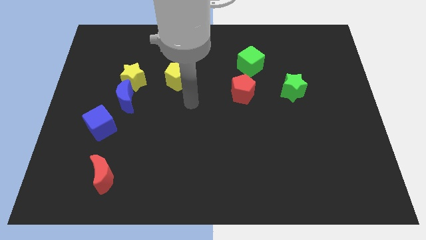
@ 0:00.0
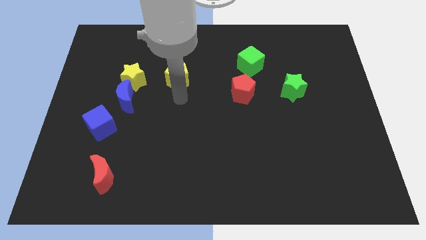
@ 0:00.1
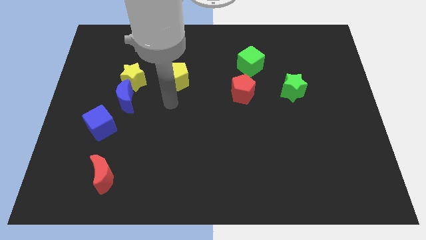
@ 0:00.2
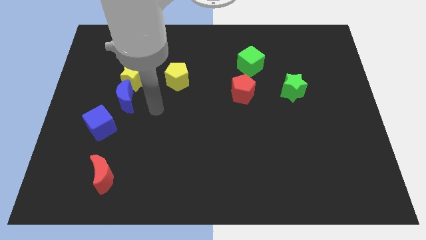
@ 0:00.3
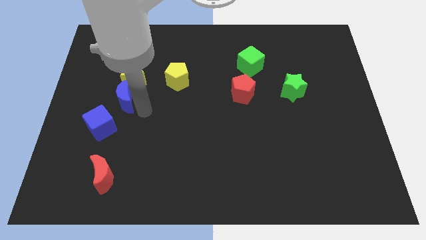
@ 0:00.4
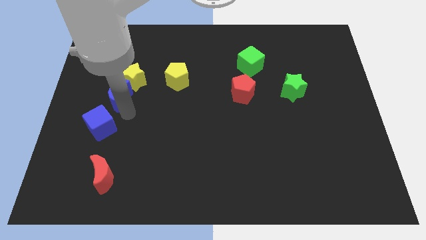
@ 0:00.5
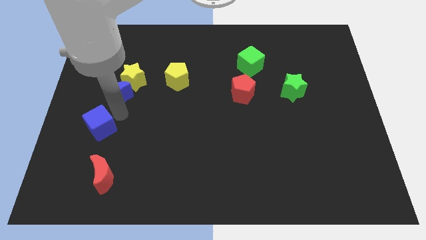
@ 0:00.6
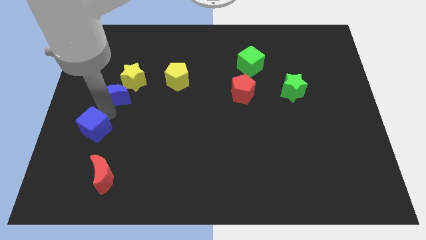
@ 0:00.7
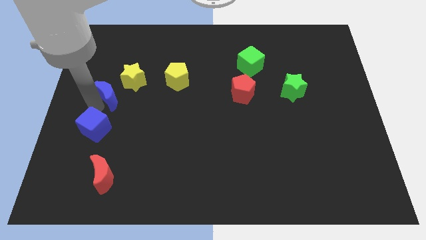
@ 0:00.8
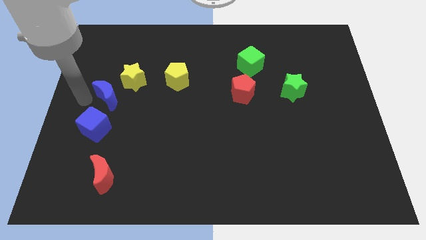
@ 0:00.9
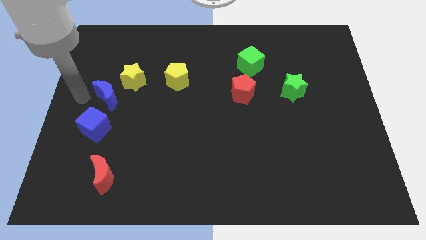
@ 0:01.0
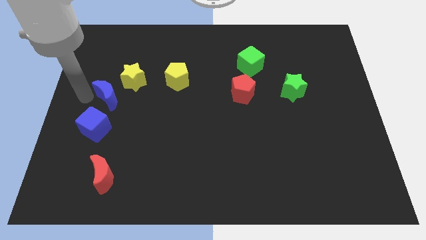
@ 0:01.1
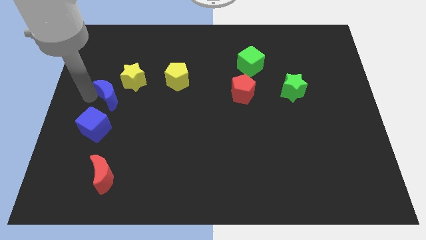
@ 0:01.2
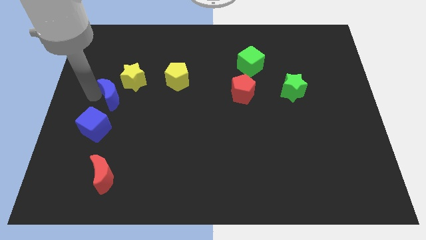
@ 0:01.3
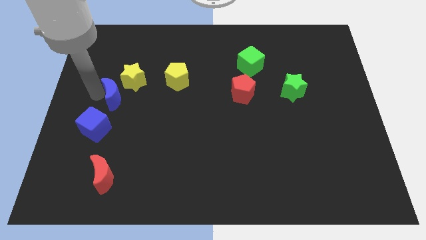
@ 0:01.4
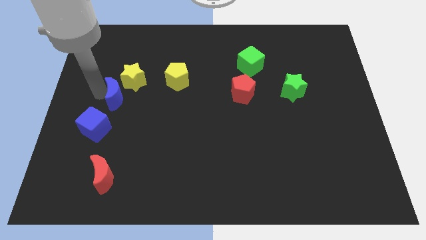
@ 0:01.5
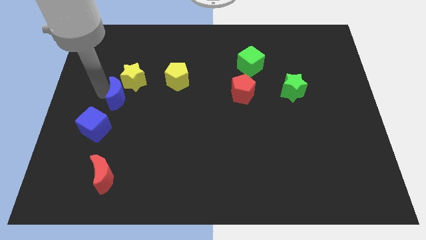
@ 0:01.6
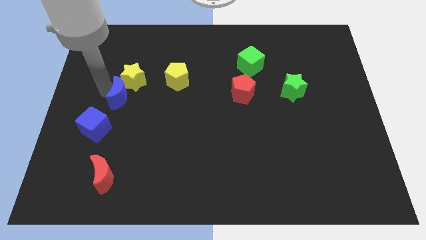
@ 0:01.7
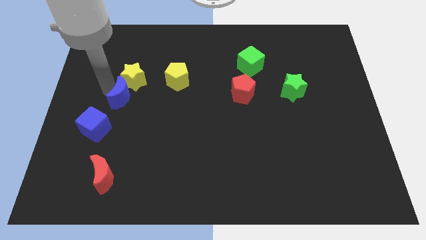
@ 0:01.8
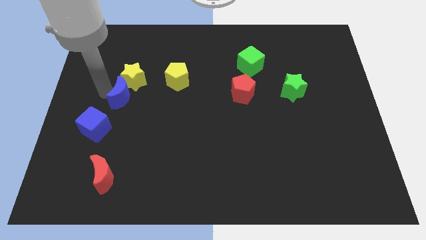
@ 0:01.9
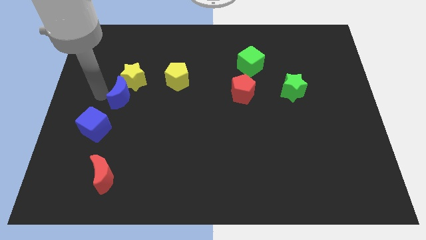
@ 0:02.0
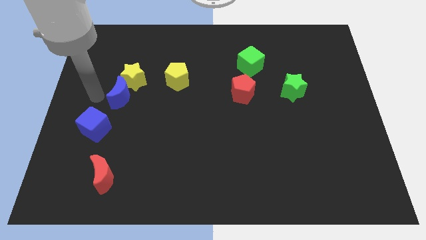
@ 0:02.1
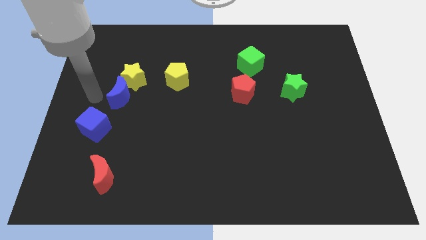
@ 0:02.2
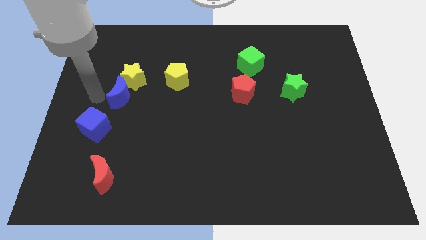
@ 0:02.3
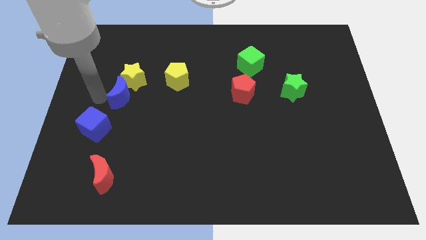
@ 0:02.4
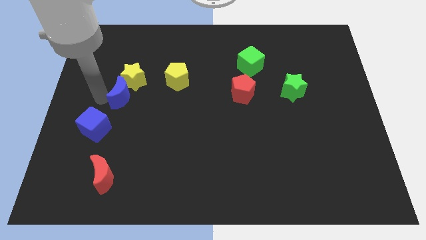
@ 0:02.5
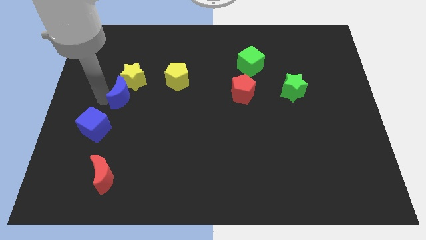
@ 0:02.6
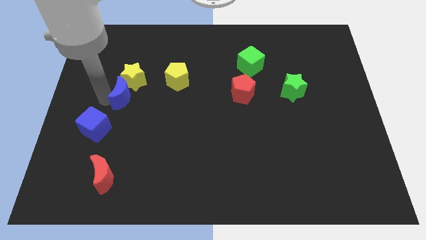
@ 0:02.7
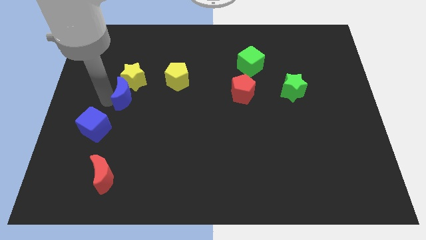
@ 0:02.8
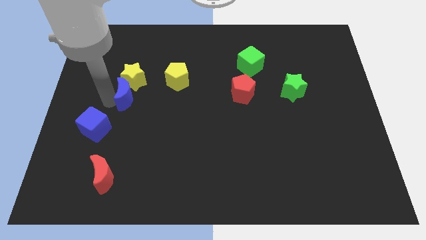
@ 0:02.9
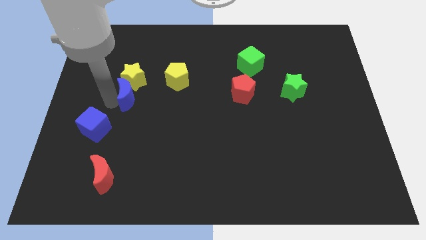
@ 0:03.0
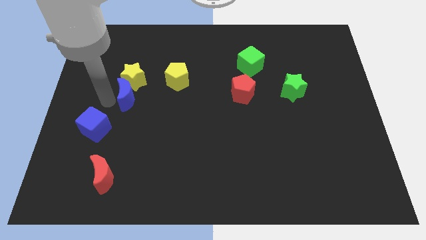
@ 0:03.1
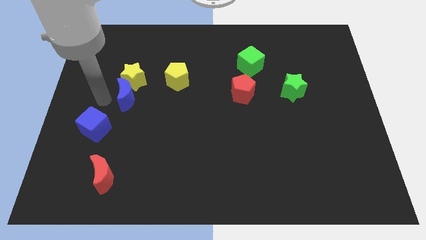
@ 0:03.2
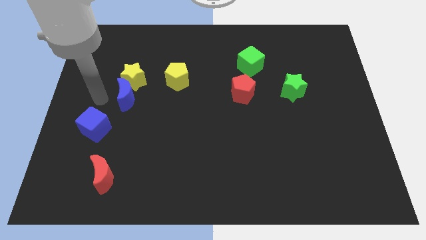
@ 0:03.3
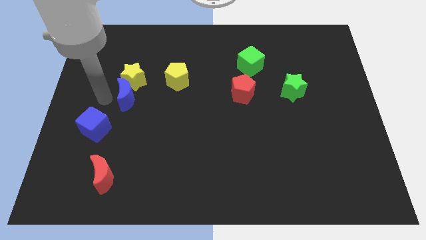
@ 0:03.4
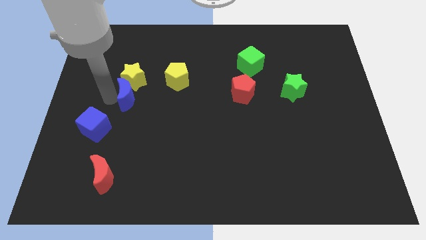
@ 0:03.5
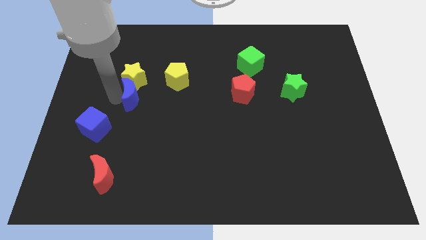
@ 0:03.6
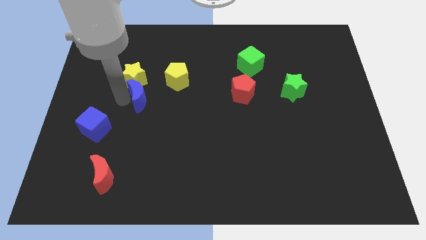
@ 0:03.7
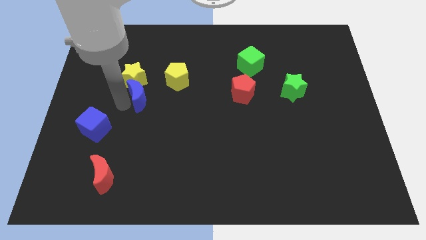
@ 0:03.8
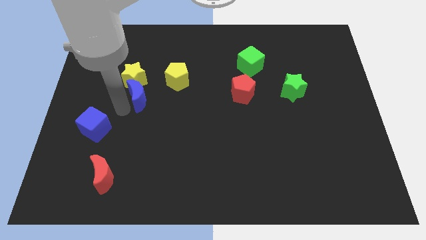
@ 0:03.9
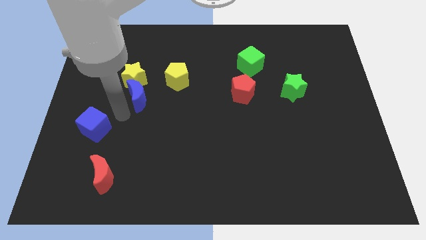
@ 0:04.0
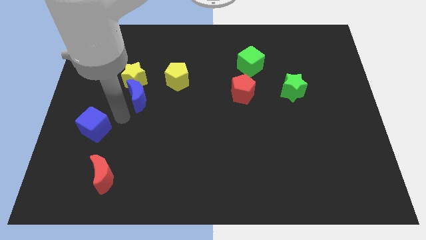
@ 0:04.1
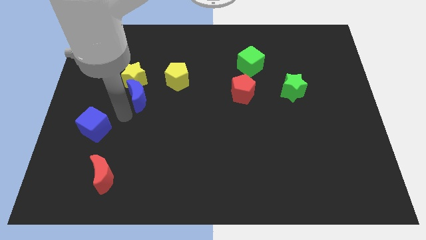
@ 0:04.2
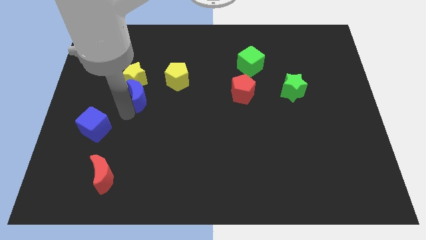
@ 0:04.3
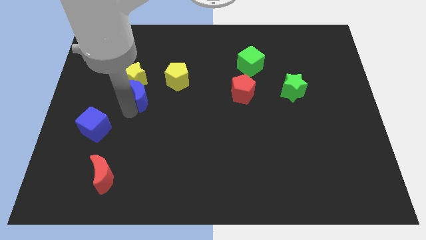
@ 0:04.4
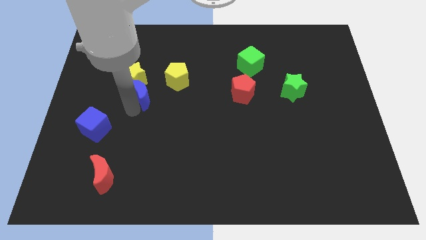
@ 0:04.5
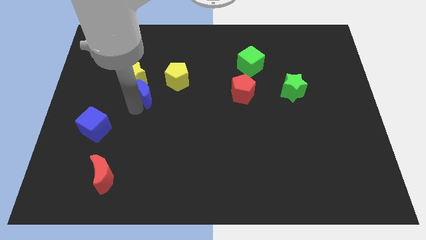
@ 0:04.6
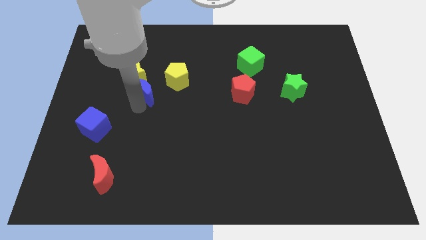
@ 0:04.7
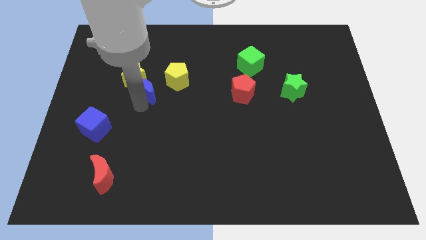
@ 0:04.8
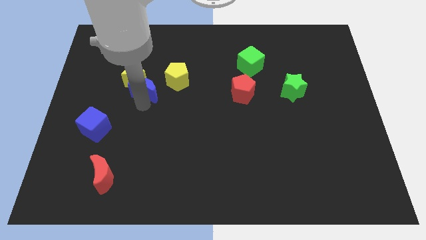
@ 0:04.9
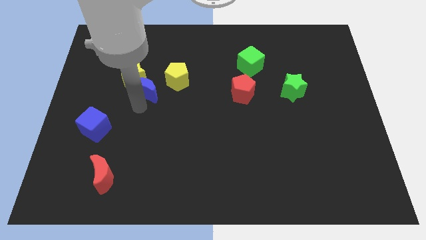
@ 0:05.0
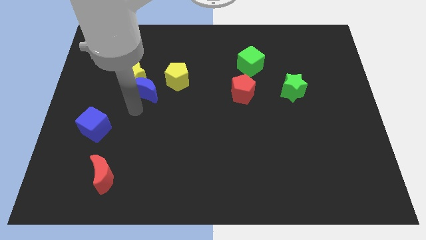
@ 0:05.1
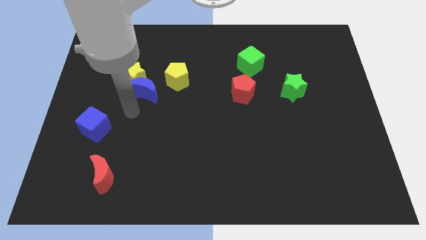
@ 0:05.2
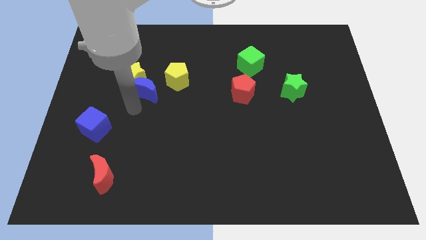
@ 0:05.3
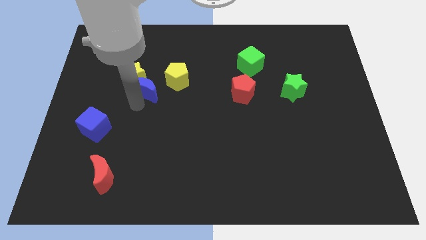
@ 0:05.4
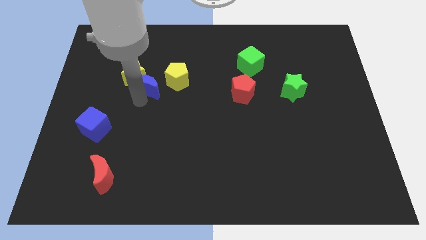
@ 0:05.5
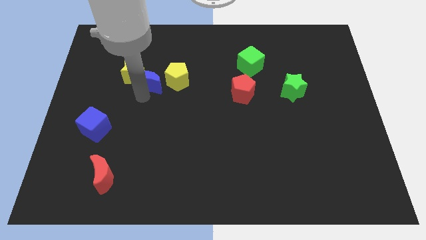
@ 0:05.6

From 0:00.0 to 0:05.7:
move the blue moon slightly up and to the right diagonally

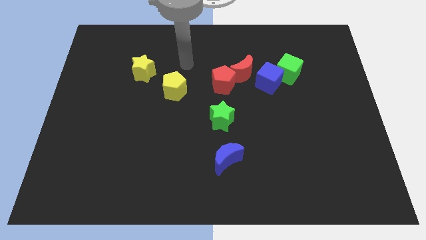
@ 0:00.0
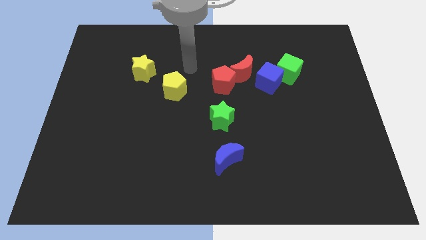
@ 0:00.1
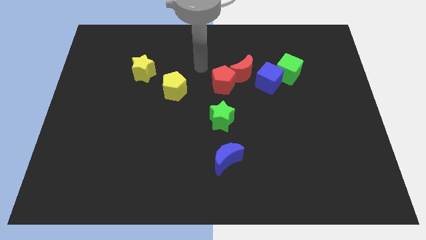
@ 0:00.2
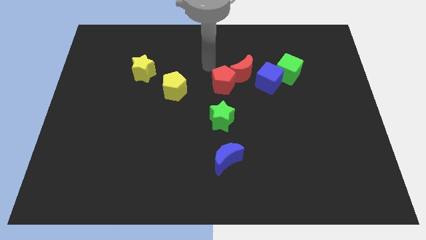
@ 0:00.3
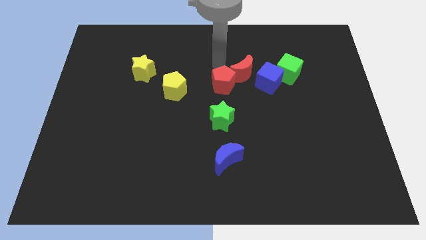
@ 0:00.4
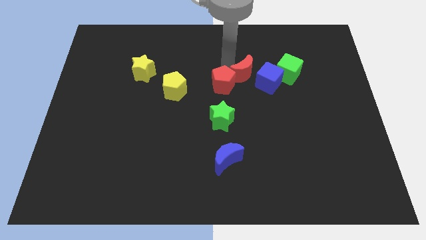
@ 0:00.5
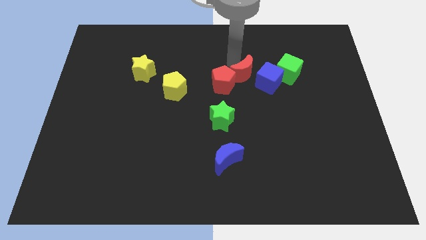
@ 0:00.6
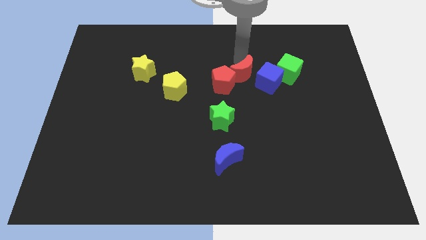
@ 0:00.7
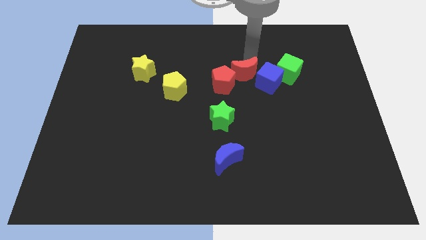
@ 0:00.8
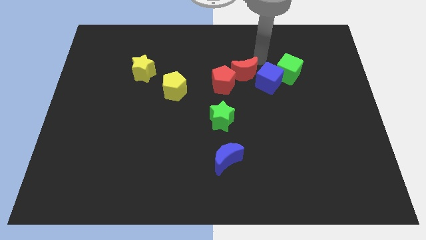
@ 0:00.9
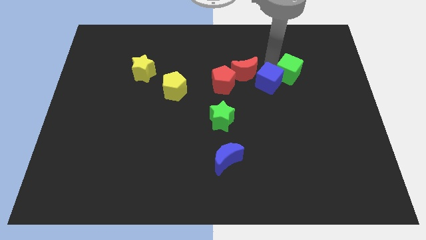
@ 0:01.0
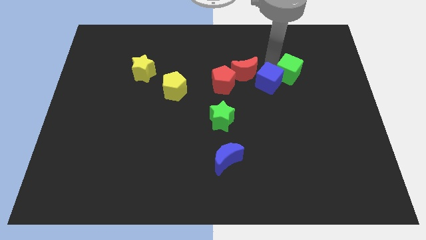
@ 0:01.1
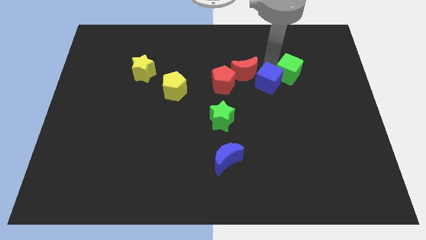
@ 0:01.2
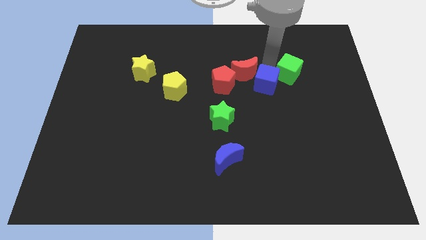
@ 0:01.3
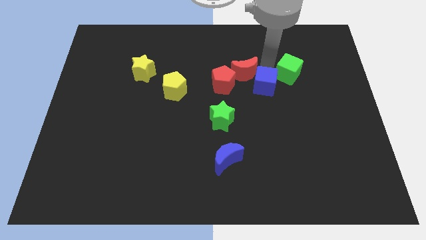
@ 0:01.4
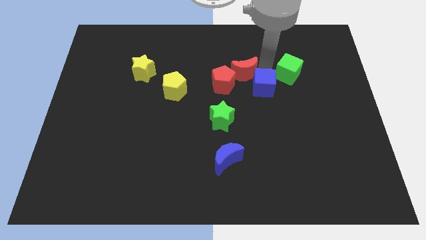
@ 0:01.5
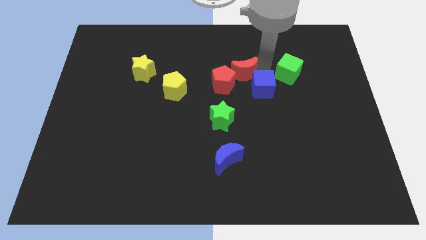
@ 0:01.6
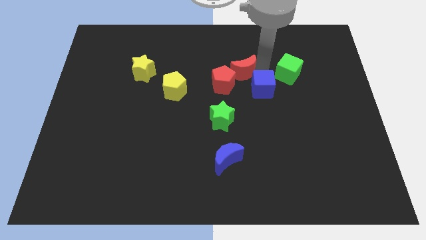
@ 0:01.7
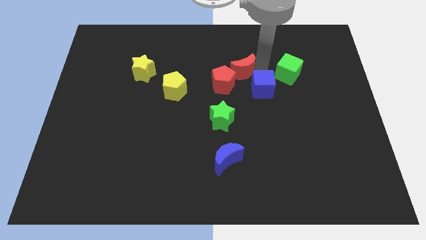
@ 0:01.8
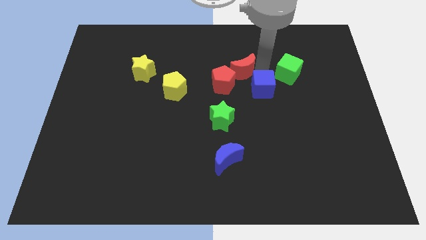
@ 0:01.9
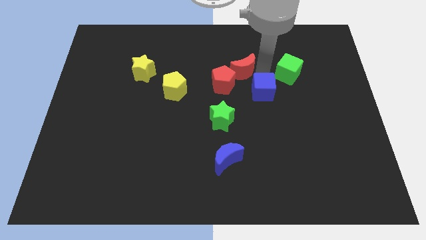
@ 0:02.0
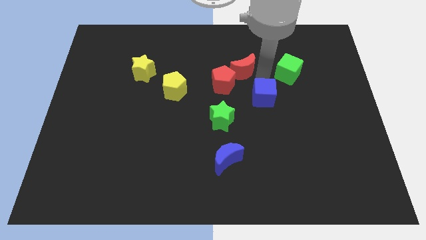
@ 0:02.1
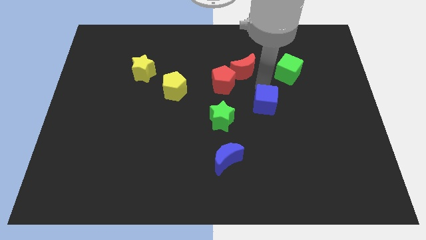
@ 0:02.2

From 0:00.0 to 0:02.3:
slightly slide the blue cube downwards
